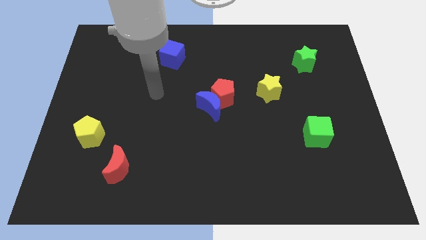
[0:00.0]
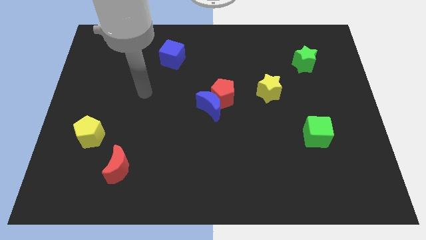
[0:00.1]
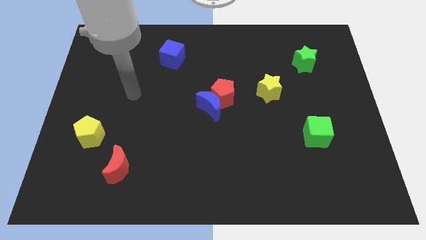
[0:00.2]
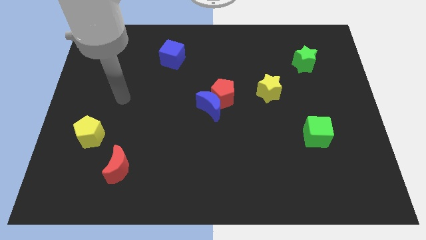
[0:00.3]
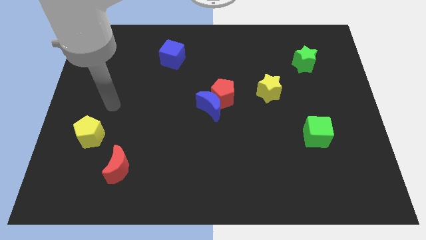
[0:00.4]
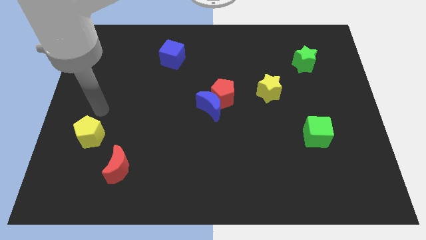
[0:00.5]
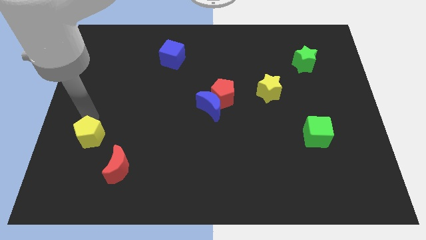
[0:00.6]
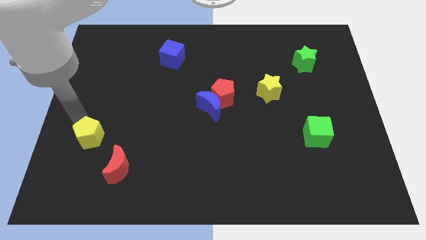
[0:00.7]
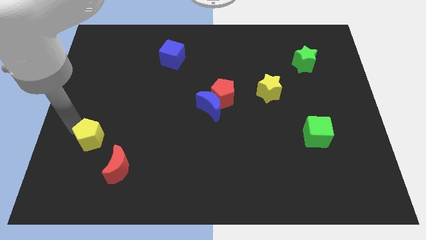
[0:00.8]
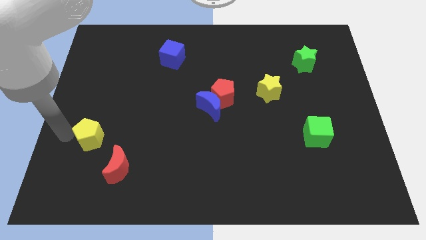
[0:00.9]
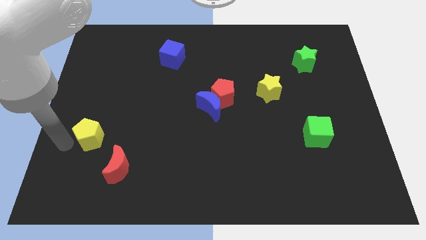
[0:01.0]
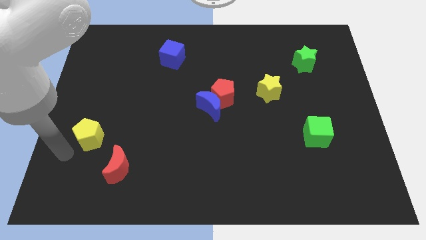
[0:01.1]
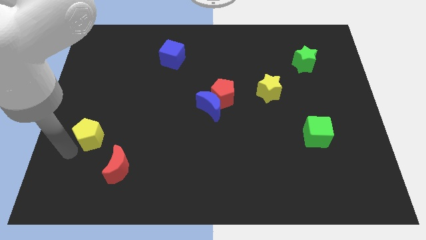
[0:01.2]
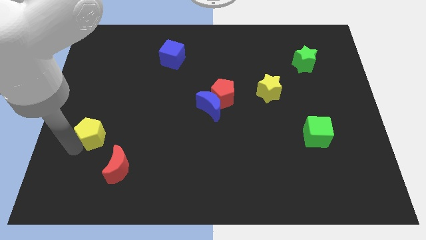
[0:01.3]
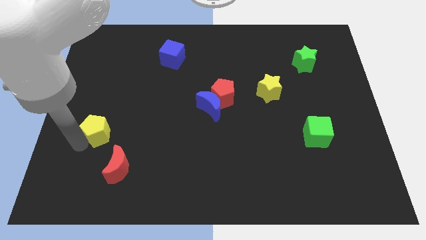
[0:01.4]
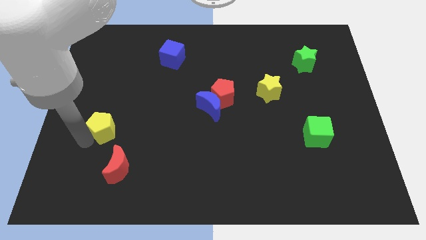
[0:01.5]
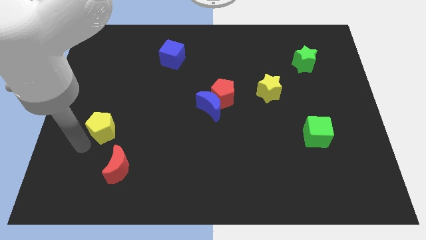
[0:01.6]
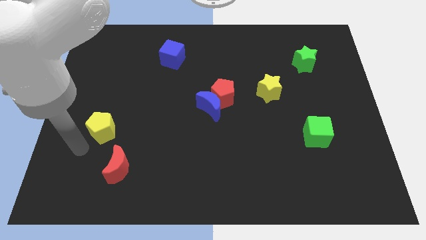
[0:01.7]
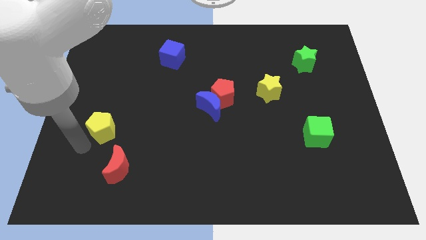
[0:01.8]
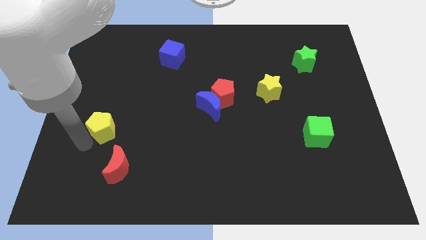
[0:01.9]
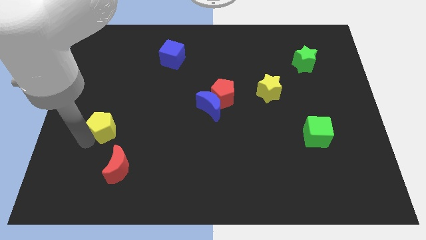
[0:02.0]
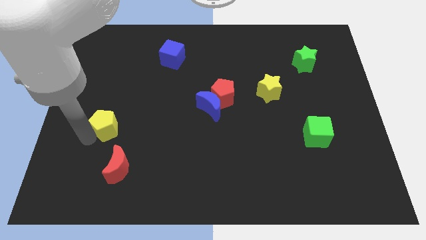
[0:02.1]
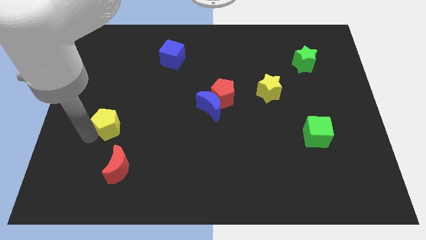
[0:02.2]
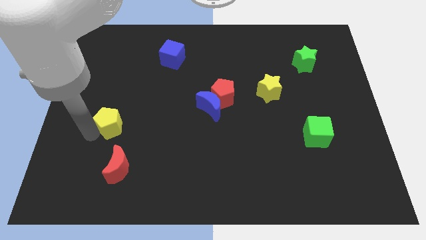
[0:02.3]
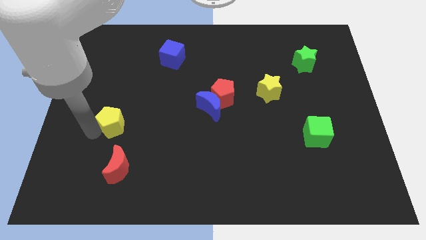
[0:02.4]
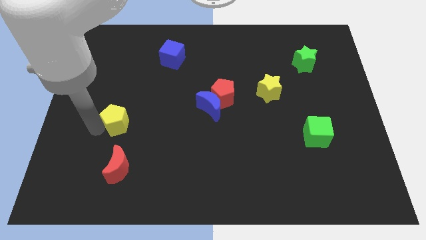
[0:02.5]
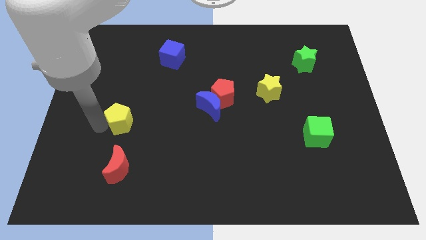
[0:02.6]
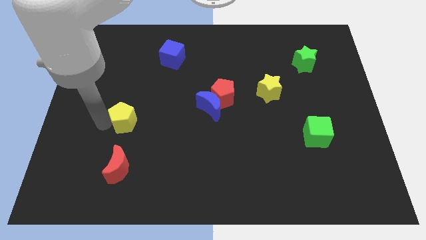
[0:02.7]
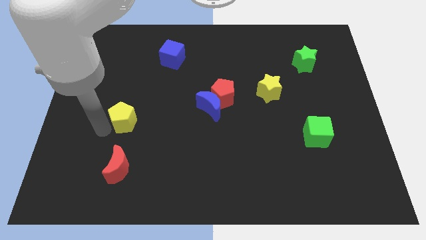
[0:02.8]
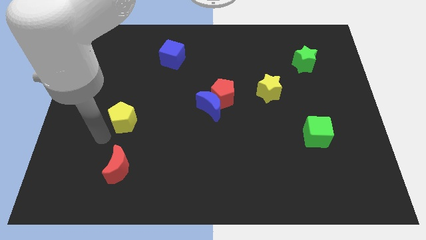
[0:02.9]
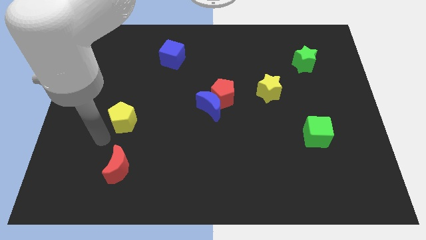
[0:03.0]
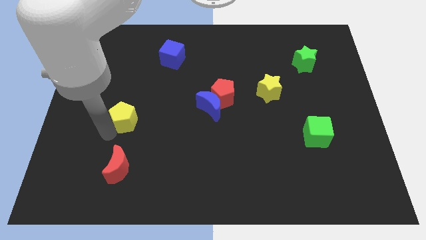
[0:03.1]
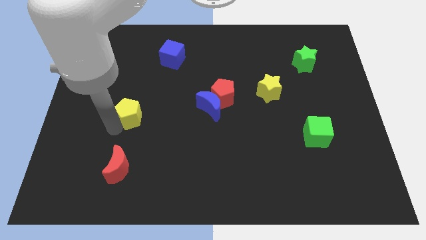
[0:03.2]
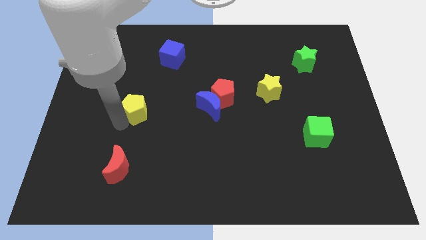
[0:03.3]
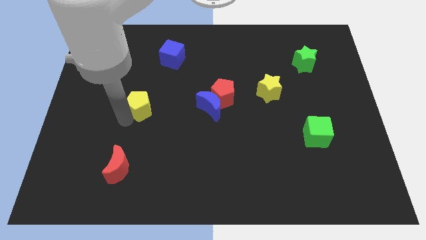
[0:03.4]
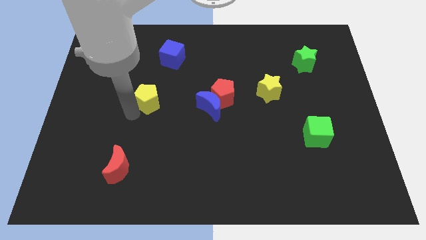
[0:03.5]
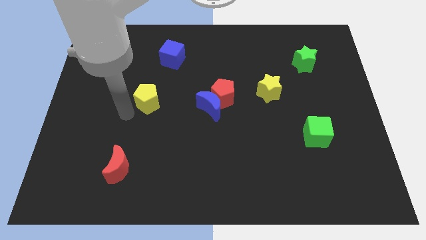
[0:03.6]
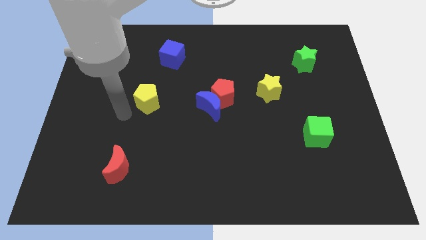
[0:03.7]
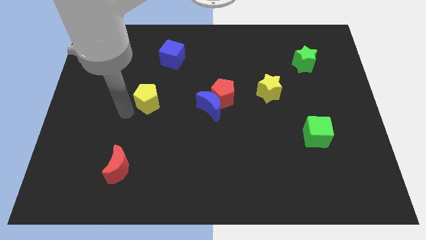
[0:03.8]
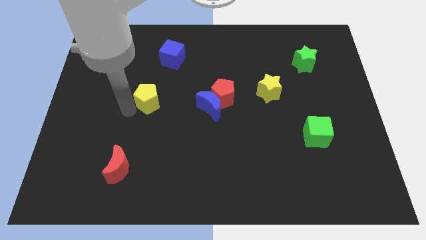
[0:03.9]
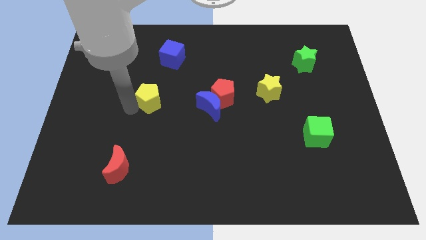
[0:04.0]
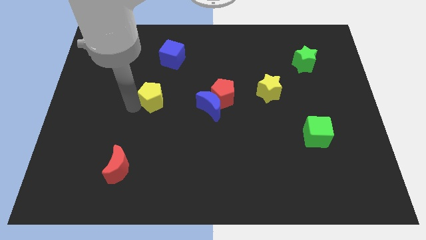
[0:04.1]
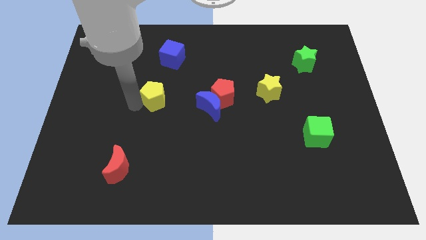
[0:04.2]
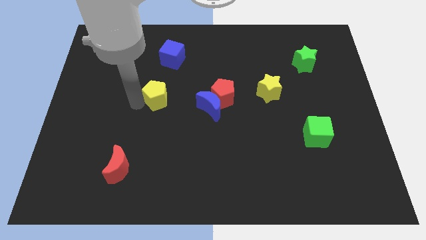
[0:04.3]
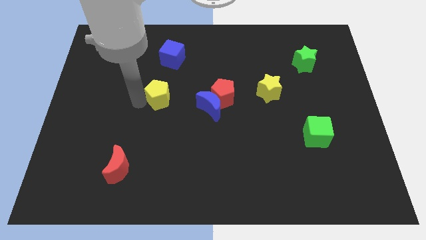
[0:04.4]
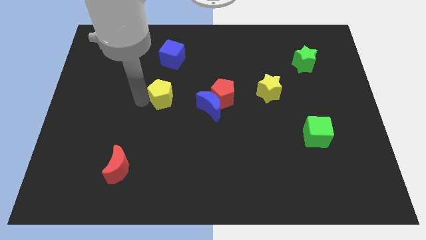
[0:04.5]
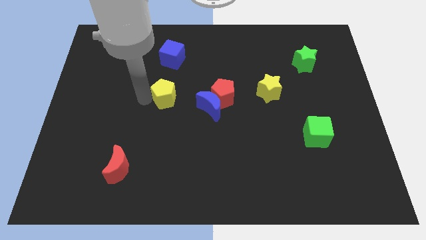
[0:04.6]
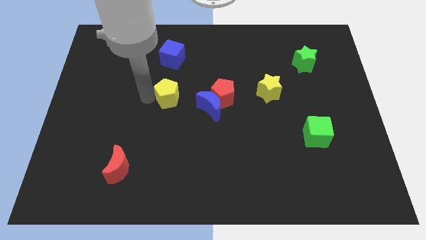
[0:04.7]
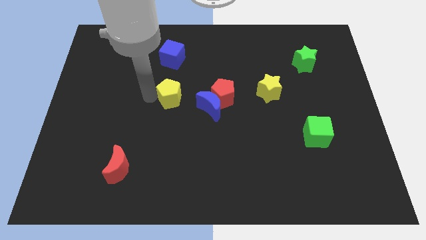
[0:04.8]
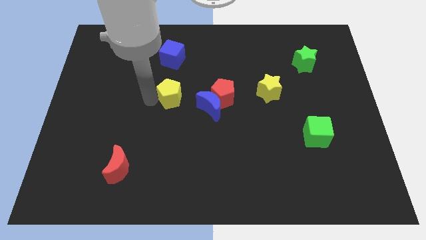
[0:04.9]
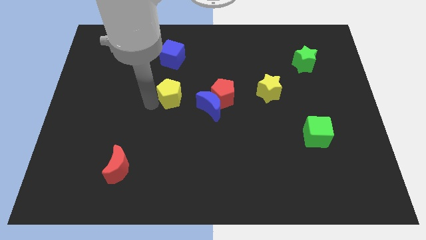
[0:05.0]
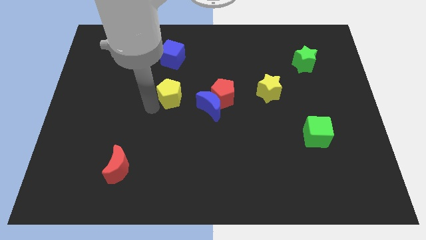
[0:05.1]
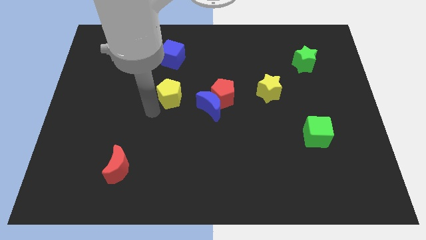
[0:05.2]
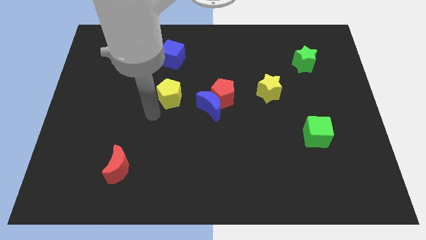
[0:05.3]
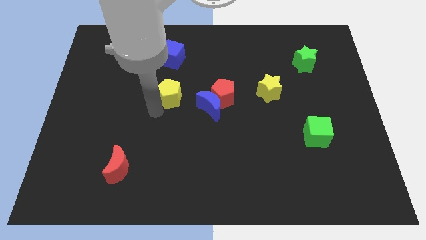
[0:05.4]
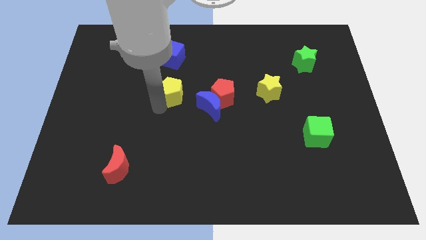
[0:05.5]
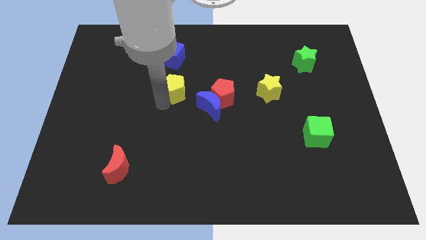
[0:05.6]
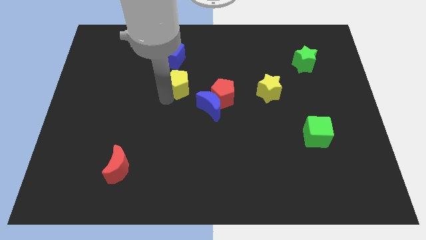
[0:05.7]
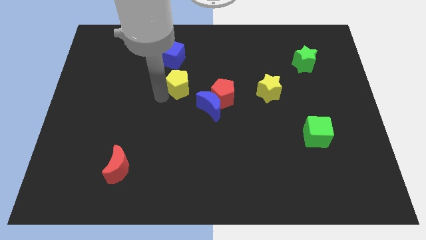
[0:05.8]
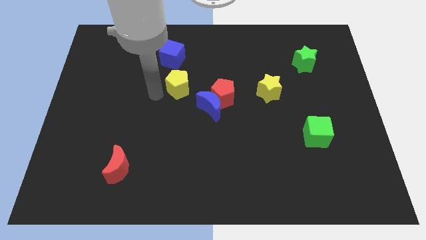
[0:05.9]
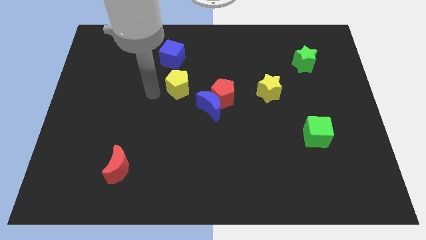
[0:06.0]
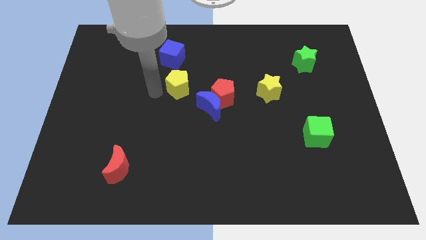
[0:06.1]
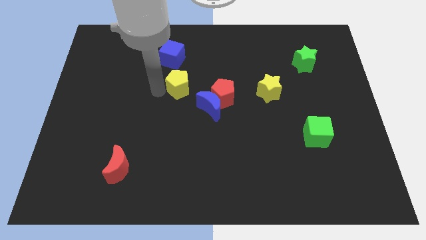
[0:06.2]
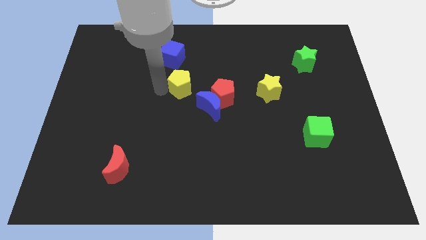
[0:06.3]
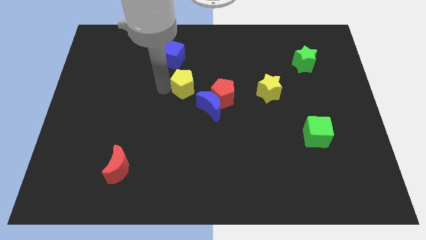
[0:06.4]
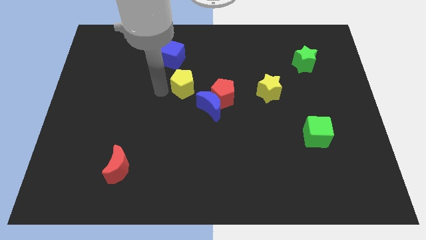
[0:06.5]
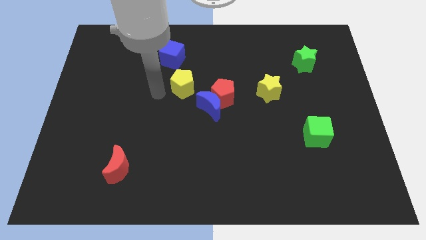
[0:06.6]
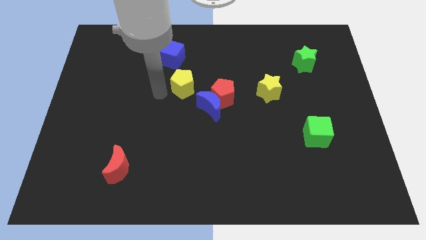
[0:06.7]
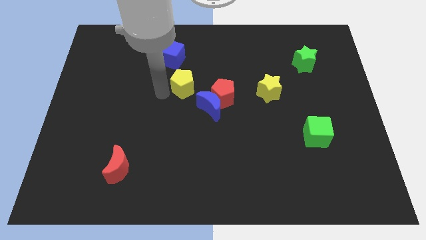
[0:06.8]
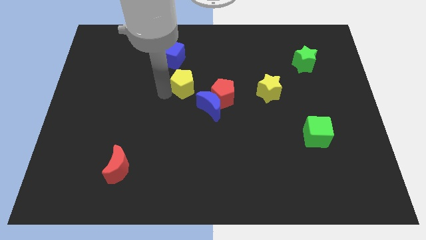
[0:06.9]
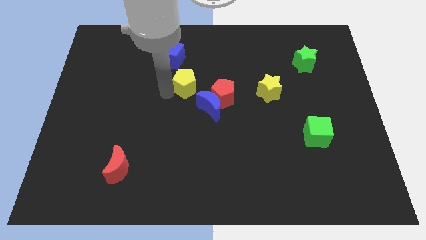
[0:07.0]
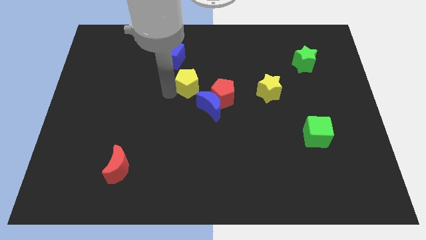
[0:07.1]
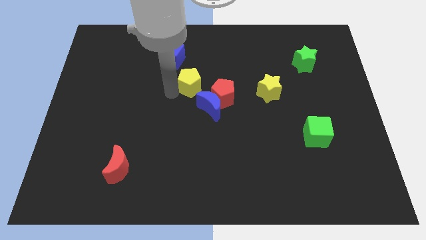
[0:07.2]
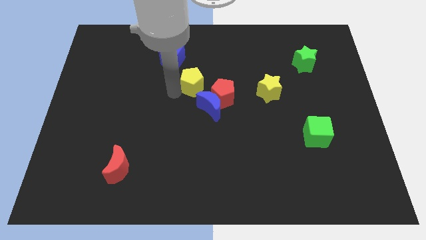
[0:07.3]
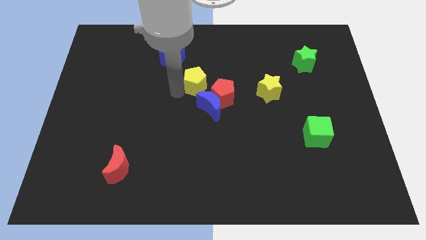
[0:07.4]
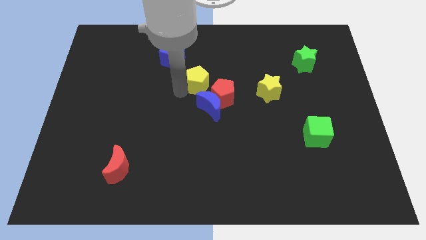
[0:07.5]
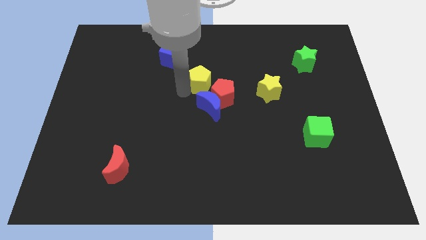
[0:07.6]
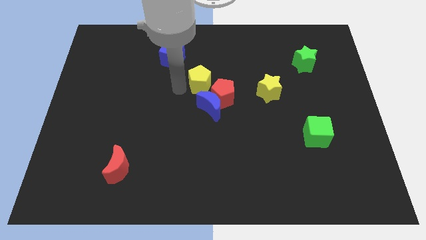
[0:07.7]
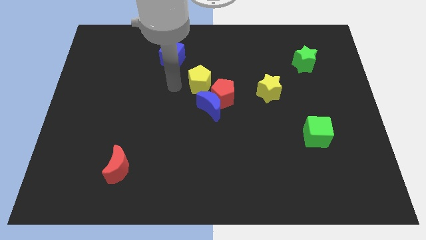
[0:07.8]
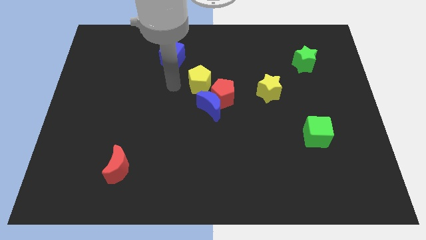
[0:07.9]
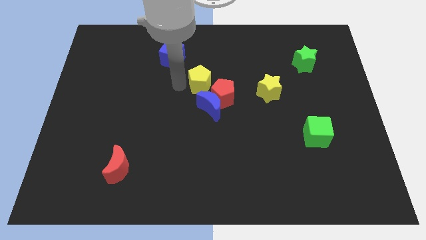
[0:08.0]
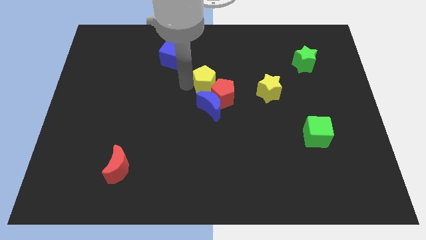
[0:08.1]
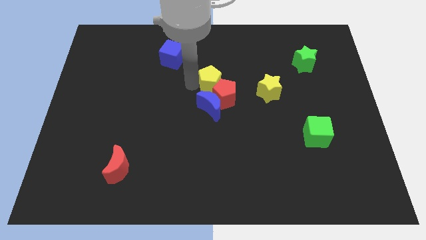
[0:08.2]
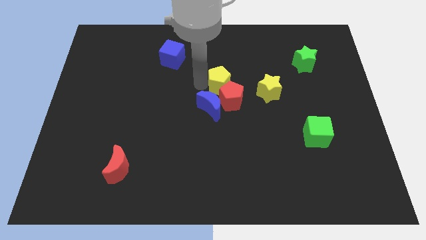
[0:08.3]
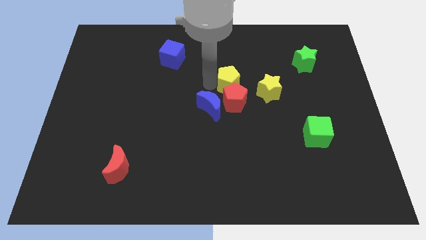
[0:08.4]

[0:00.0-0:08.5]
put the yellow pentagon to the top right side of the red pentagon
